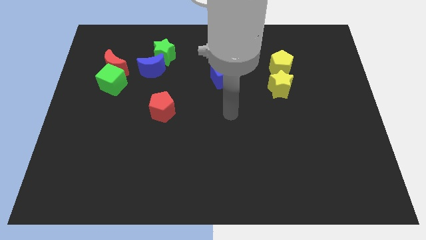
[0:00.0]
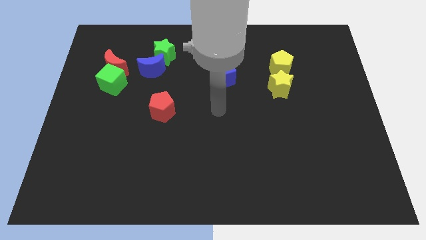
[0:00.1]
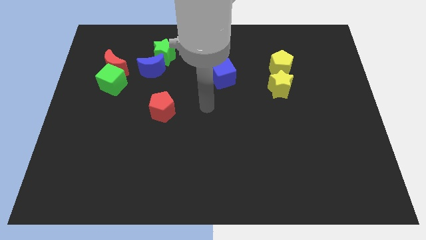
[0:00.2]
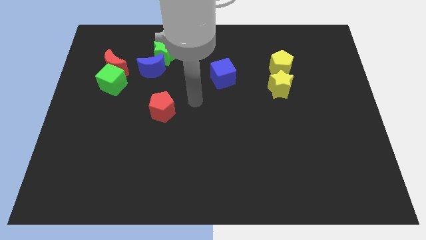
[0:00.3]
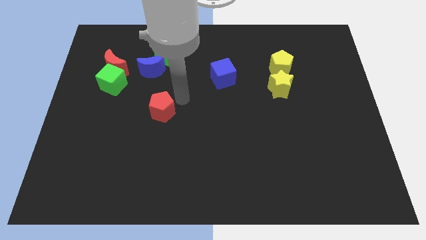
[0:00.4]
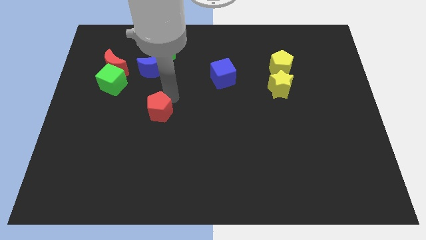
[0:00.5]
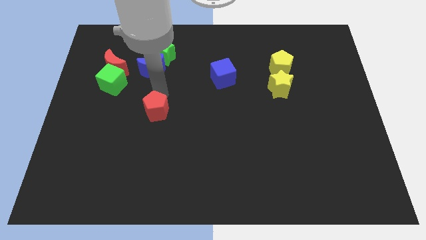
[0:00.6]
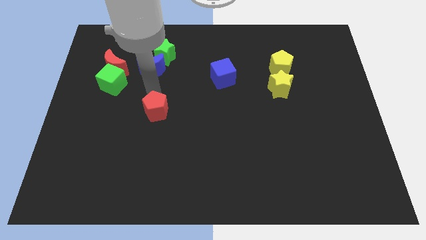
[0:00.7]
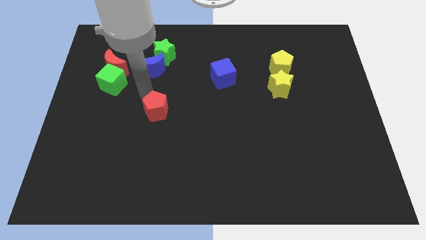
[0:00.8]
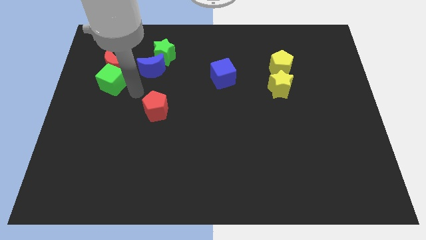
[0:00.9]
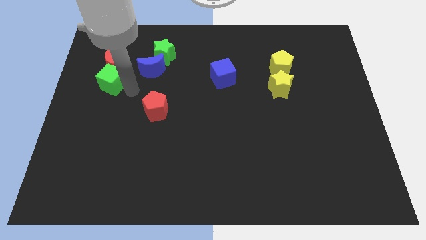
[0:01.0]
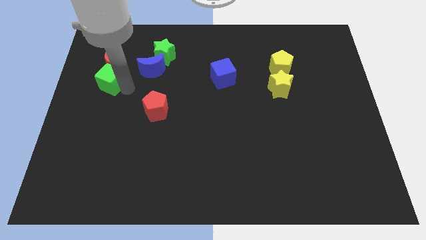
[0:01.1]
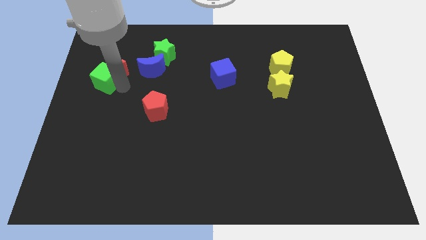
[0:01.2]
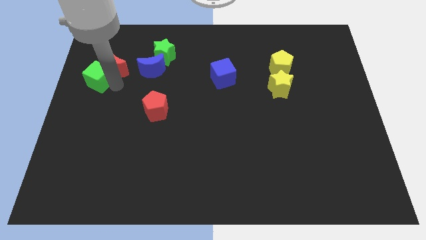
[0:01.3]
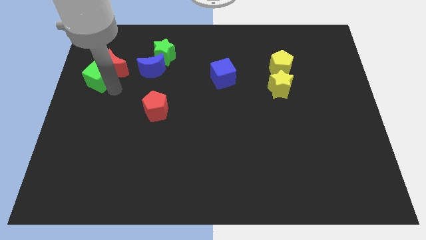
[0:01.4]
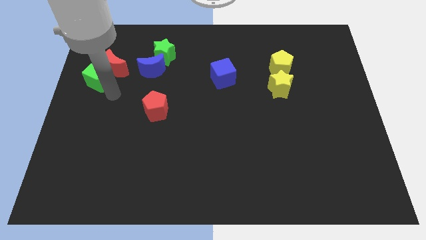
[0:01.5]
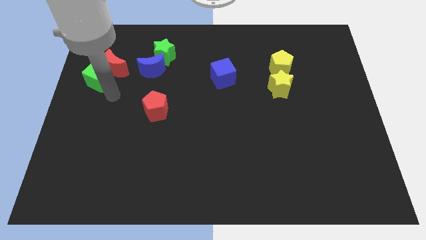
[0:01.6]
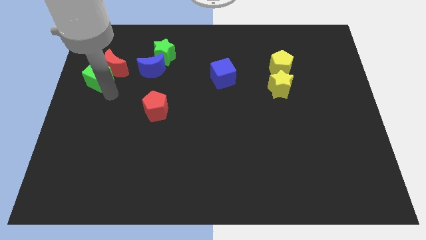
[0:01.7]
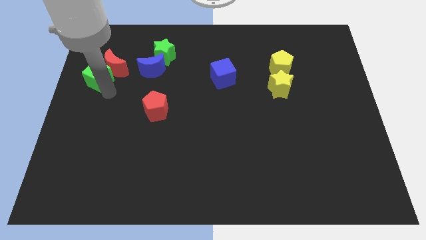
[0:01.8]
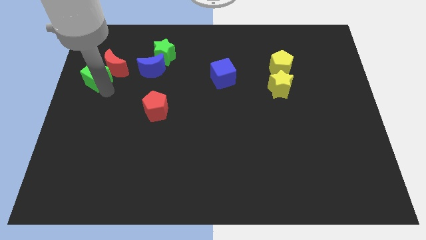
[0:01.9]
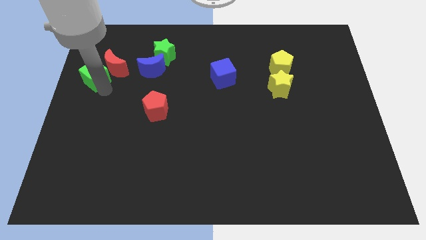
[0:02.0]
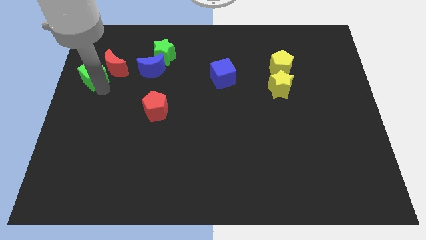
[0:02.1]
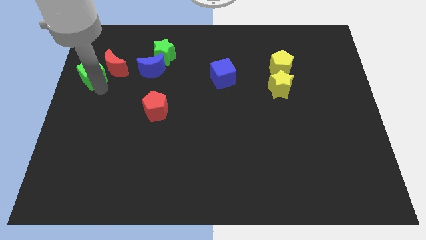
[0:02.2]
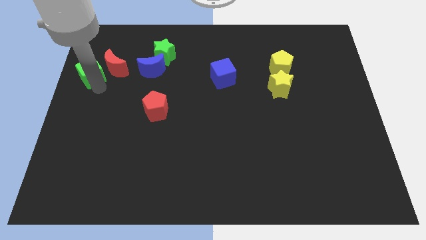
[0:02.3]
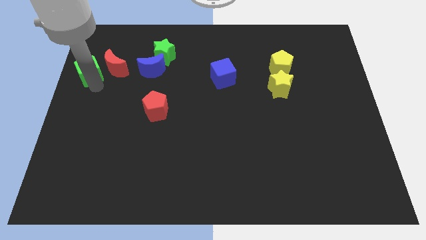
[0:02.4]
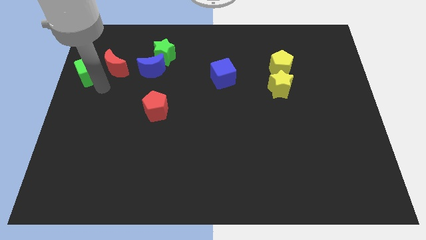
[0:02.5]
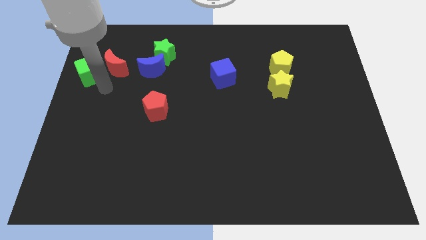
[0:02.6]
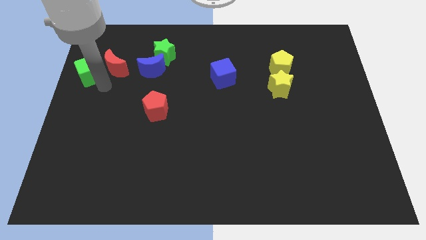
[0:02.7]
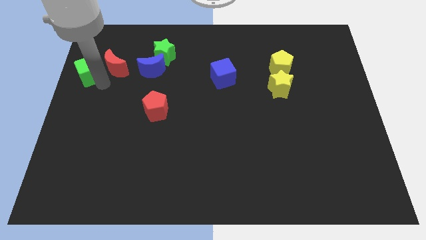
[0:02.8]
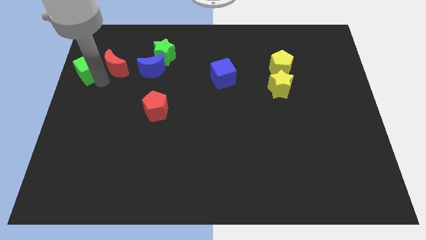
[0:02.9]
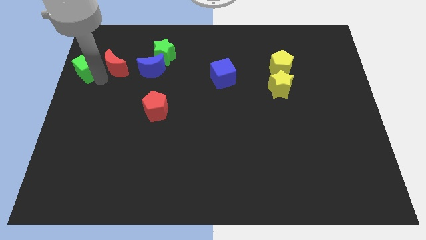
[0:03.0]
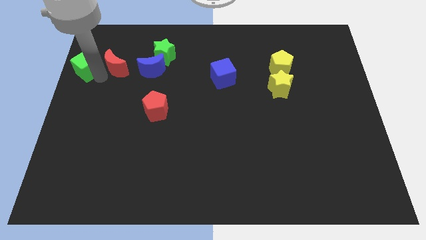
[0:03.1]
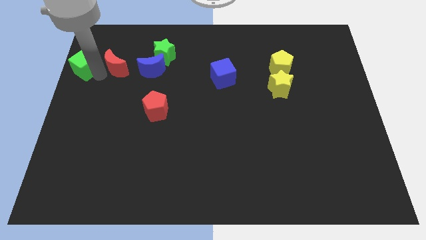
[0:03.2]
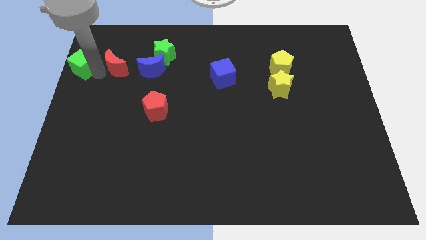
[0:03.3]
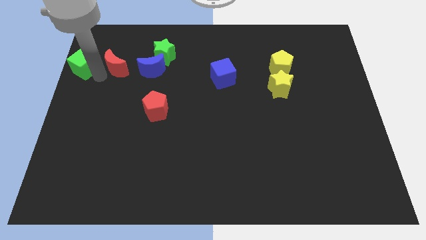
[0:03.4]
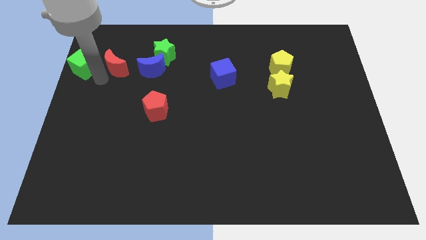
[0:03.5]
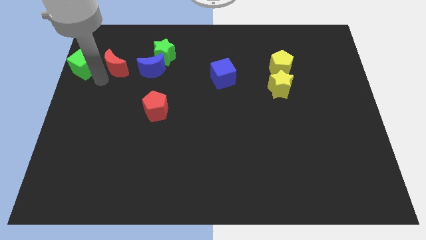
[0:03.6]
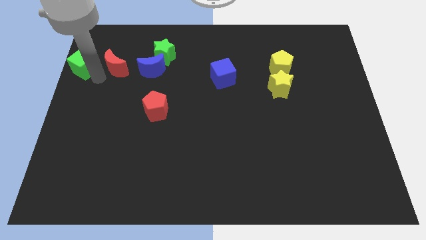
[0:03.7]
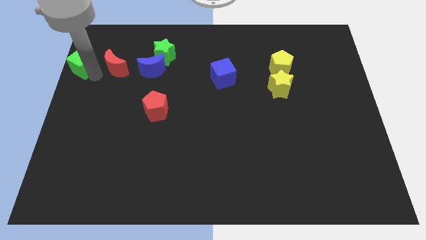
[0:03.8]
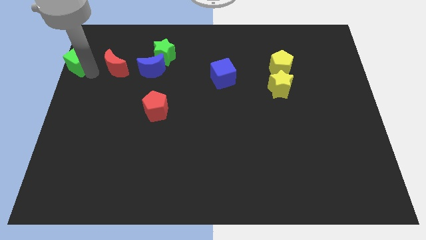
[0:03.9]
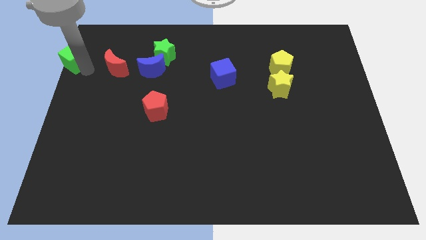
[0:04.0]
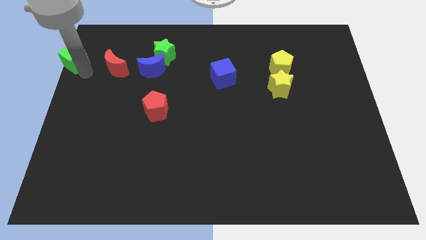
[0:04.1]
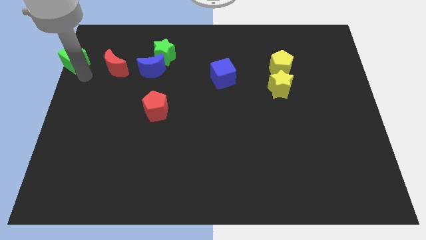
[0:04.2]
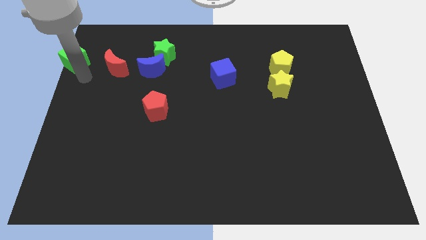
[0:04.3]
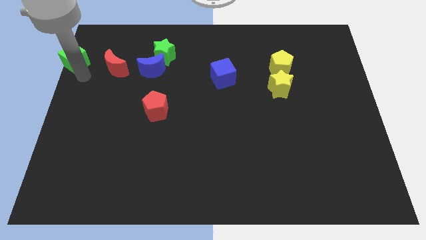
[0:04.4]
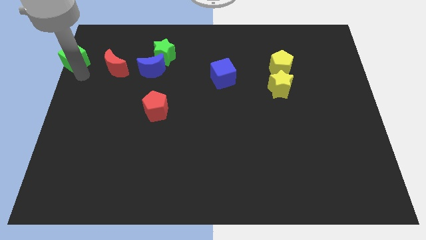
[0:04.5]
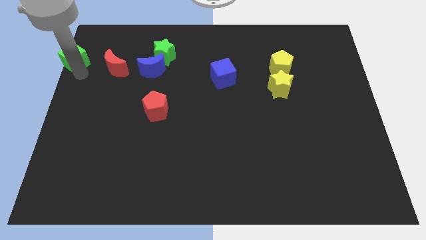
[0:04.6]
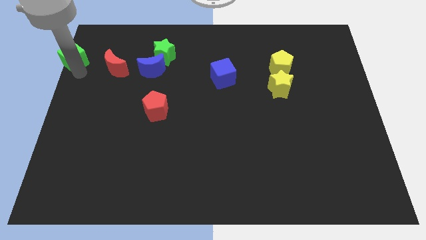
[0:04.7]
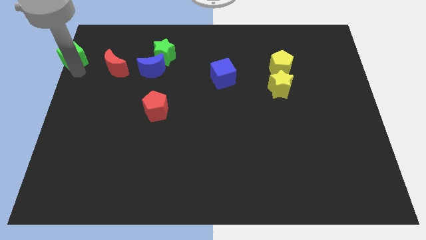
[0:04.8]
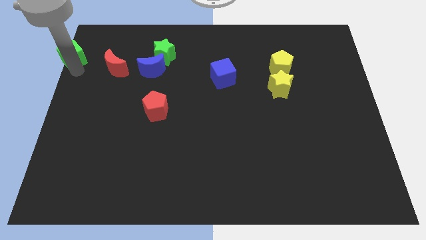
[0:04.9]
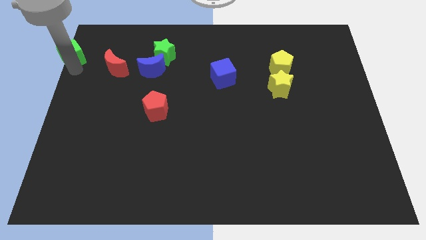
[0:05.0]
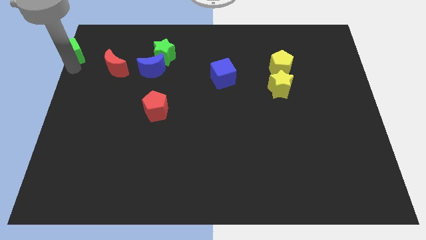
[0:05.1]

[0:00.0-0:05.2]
slide the green cube to the top left of the board

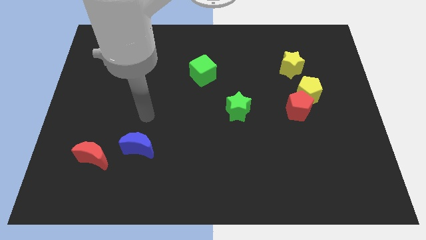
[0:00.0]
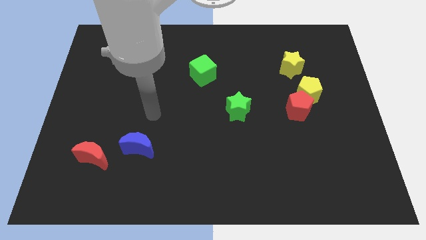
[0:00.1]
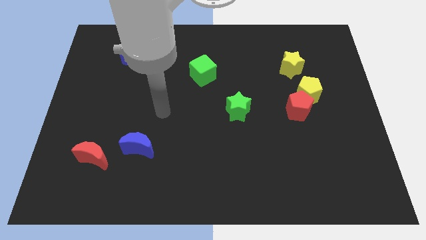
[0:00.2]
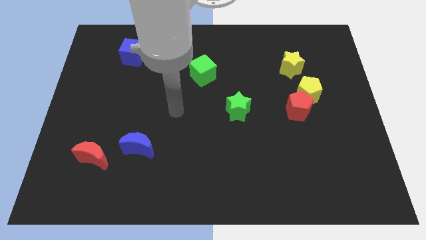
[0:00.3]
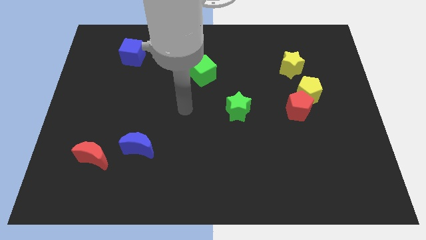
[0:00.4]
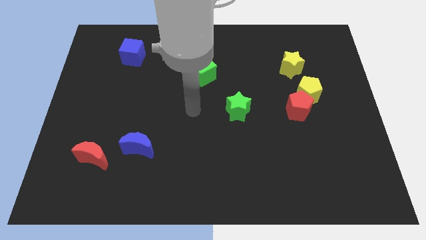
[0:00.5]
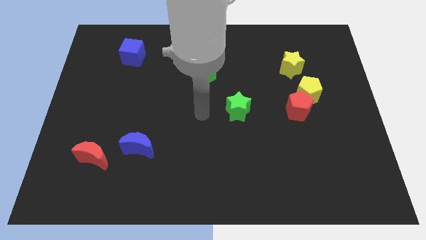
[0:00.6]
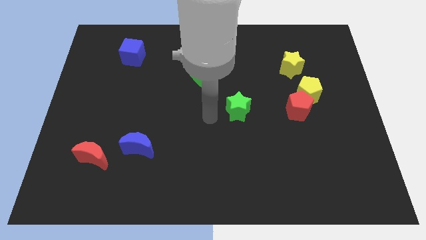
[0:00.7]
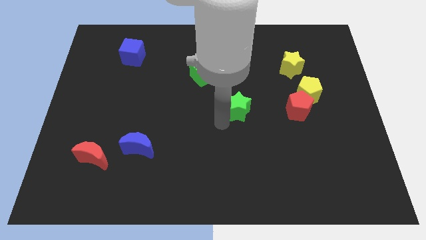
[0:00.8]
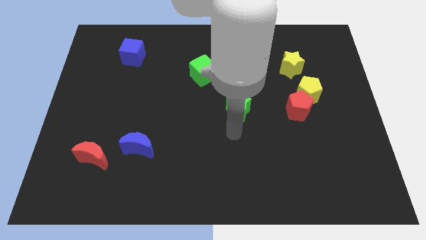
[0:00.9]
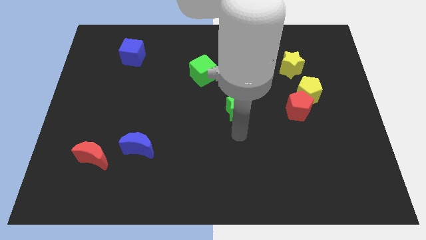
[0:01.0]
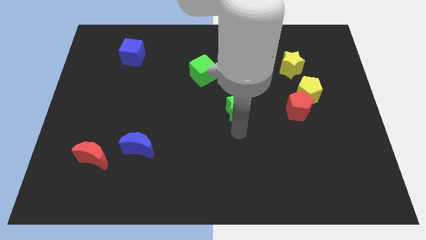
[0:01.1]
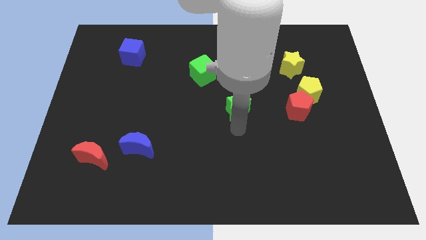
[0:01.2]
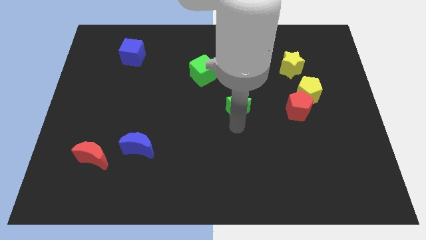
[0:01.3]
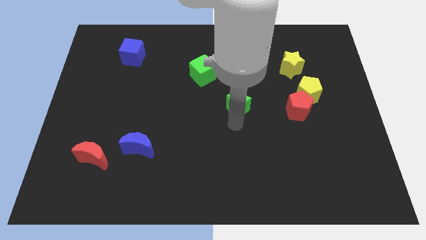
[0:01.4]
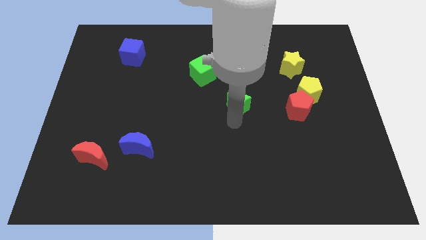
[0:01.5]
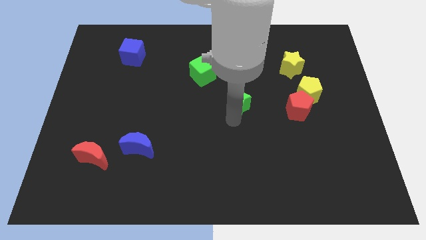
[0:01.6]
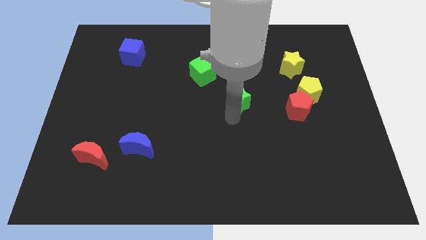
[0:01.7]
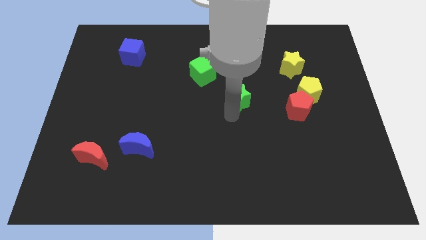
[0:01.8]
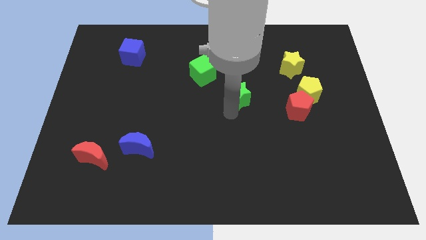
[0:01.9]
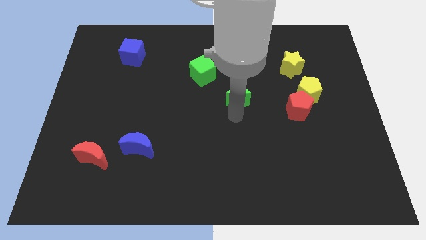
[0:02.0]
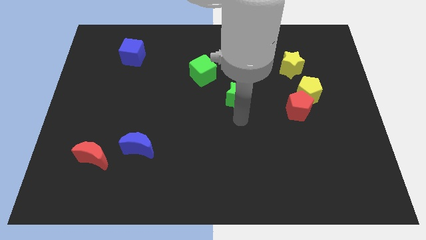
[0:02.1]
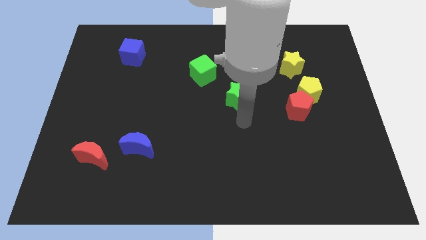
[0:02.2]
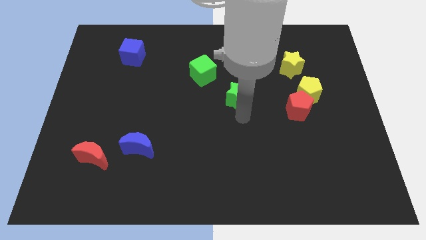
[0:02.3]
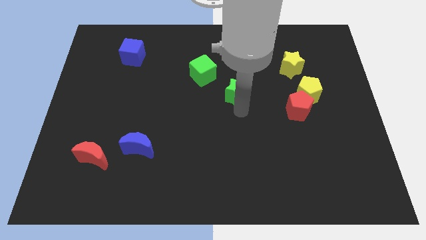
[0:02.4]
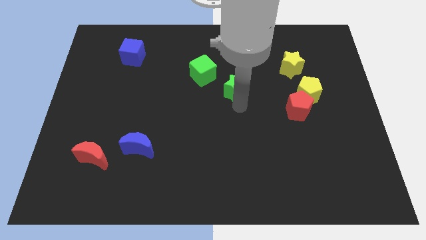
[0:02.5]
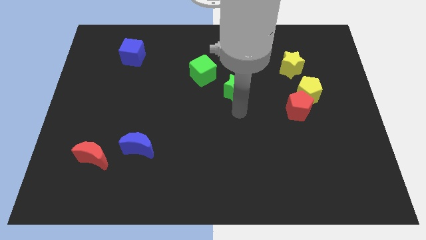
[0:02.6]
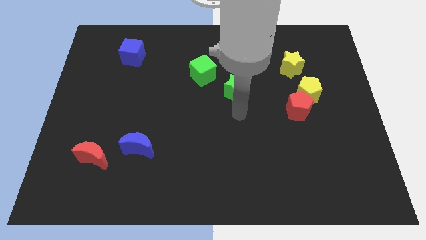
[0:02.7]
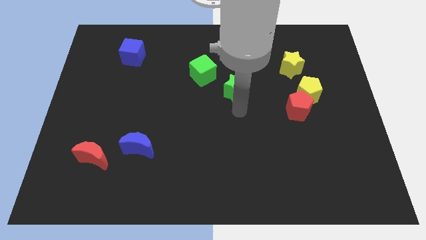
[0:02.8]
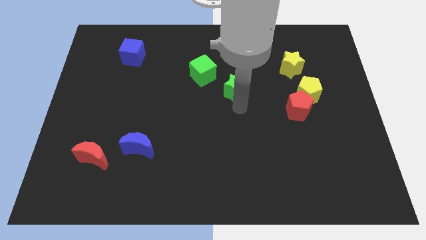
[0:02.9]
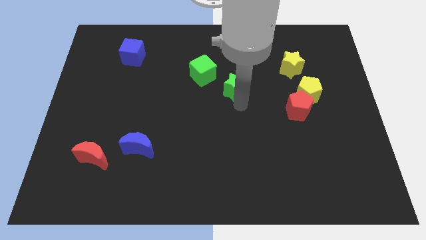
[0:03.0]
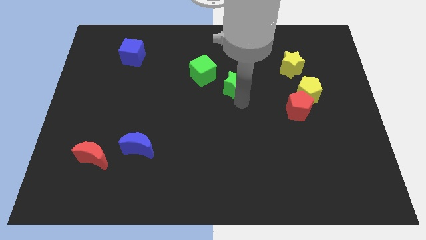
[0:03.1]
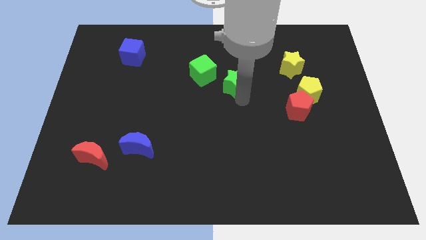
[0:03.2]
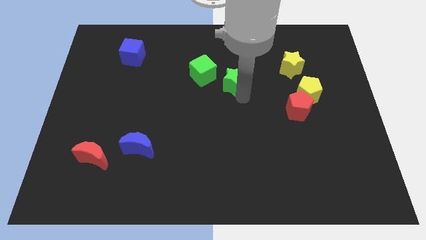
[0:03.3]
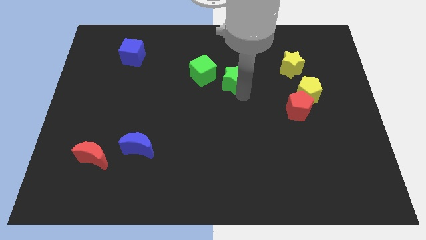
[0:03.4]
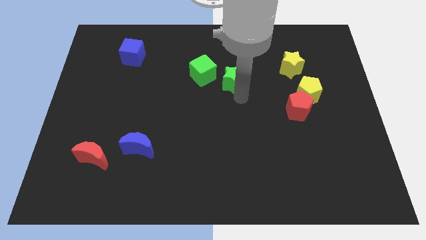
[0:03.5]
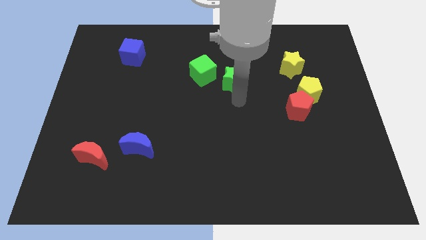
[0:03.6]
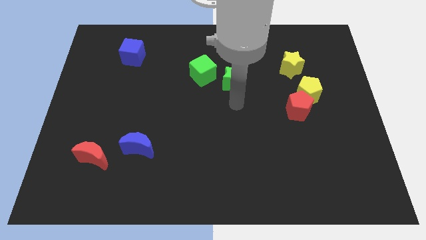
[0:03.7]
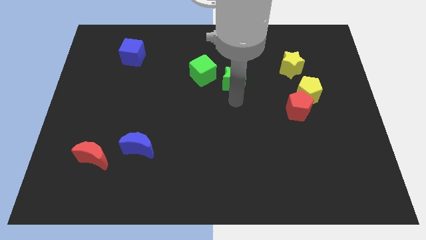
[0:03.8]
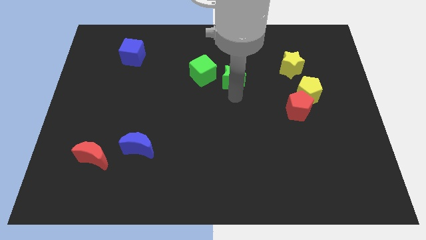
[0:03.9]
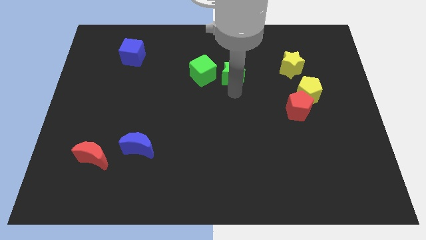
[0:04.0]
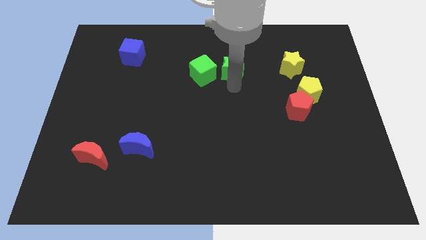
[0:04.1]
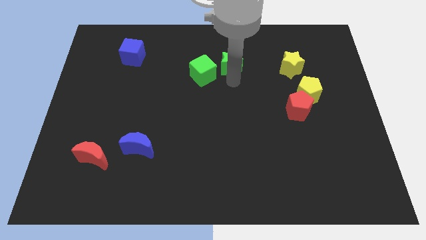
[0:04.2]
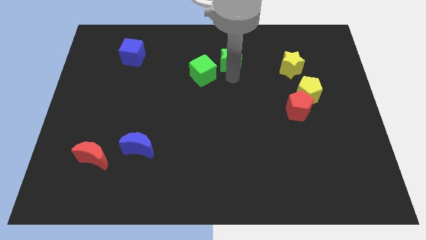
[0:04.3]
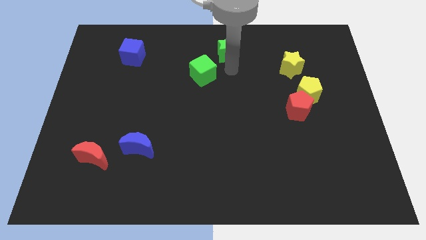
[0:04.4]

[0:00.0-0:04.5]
push the green star to the top side
